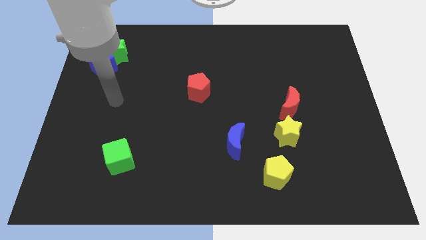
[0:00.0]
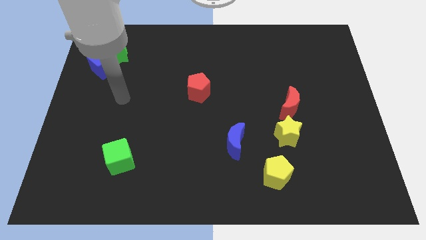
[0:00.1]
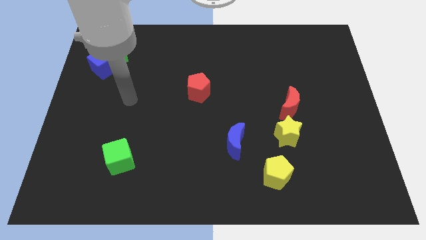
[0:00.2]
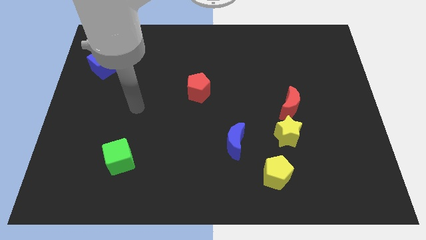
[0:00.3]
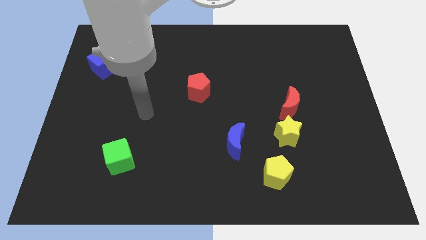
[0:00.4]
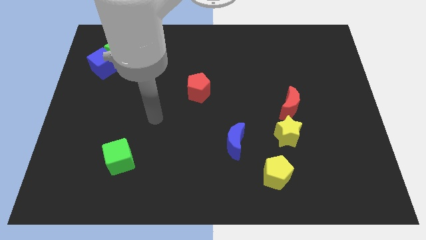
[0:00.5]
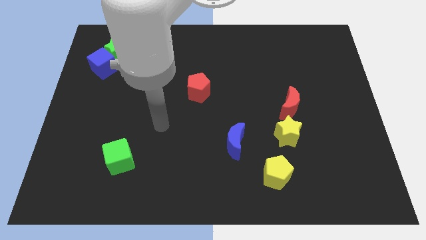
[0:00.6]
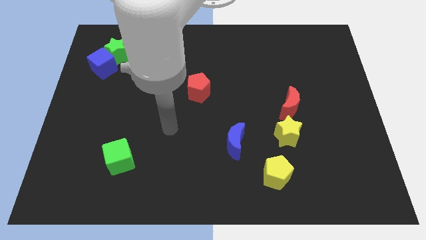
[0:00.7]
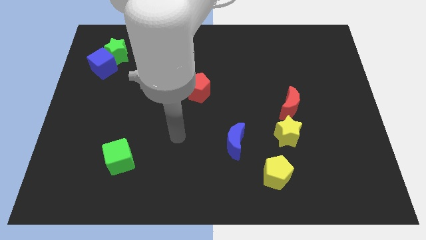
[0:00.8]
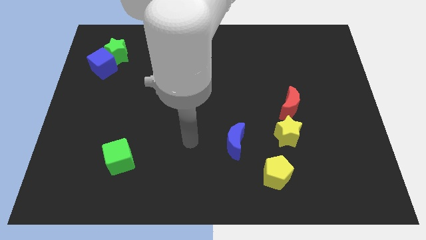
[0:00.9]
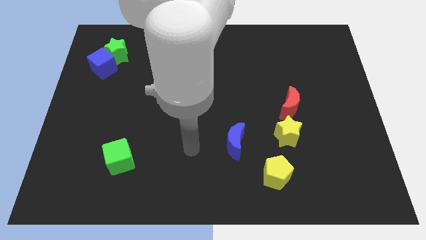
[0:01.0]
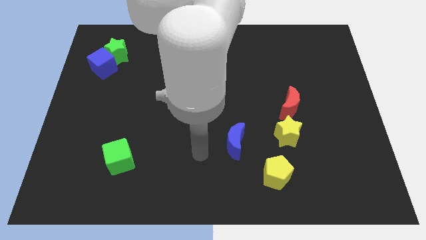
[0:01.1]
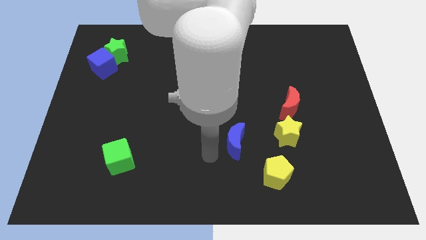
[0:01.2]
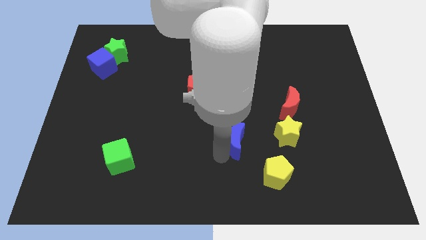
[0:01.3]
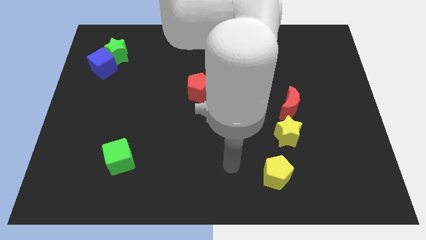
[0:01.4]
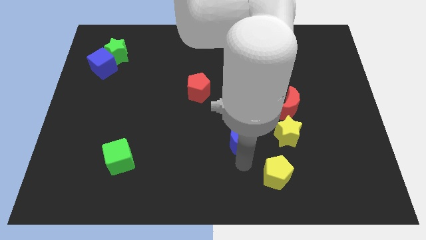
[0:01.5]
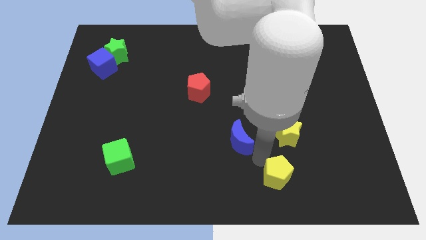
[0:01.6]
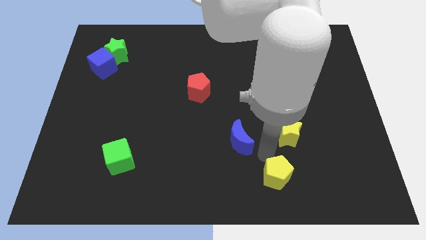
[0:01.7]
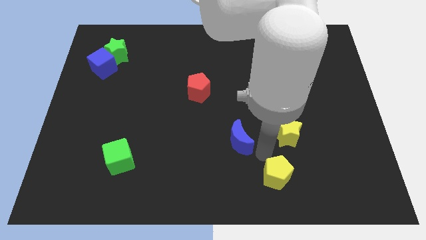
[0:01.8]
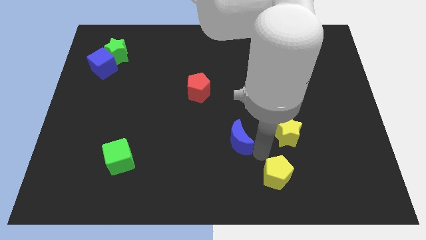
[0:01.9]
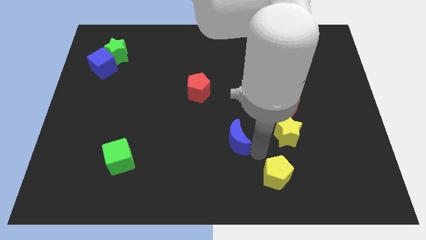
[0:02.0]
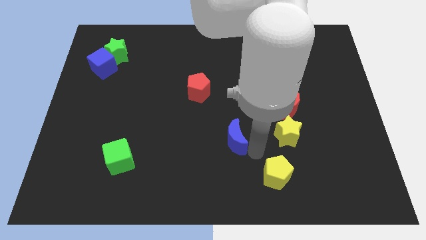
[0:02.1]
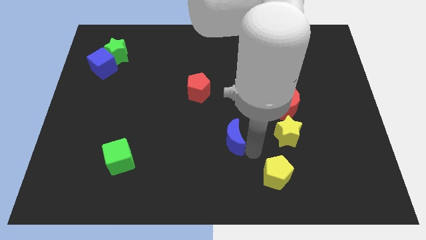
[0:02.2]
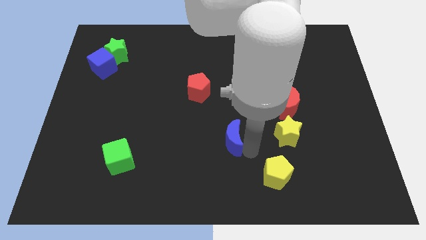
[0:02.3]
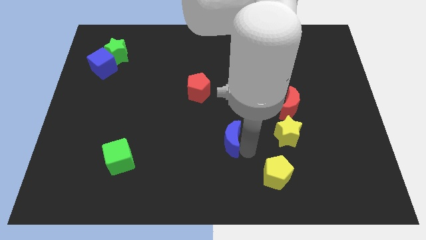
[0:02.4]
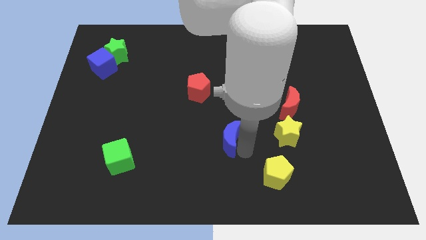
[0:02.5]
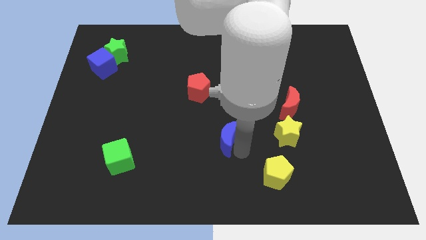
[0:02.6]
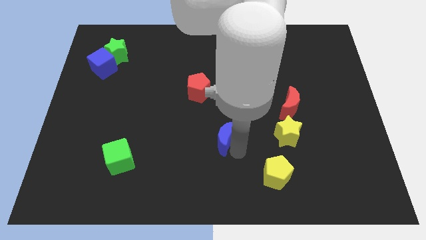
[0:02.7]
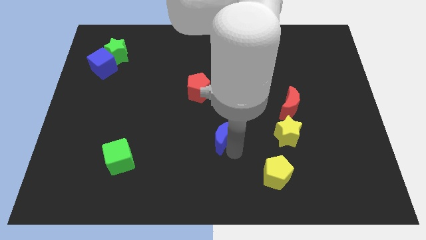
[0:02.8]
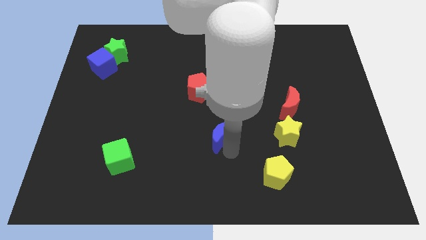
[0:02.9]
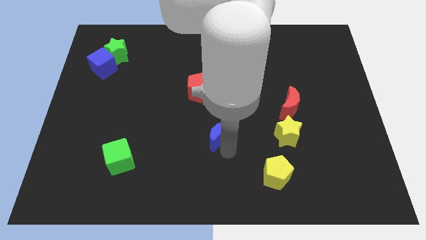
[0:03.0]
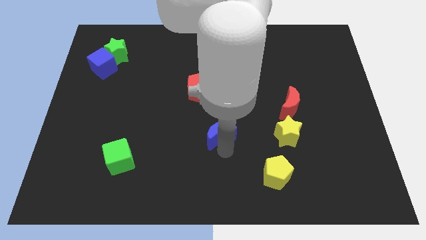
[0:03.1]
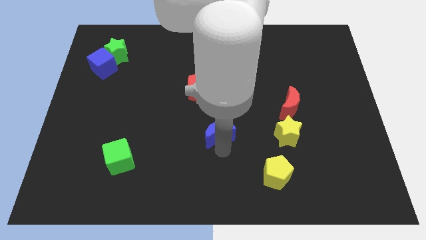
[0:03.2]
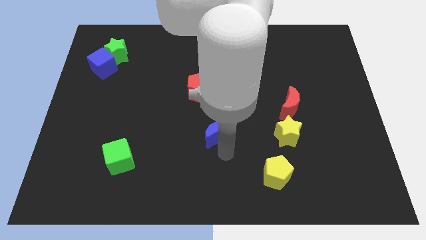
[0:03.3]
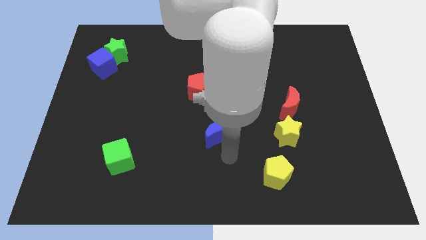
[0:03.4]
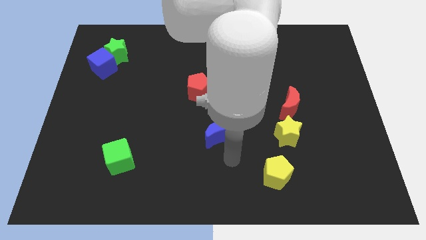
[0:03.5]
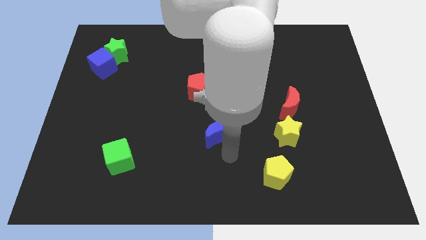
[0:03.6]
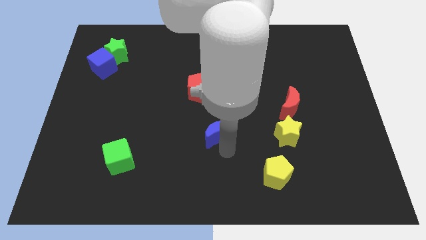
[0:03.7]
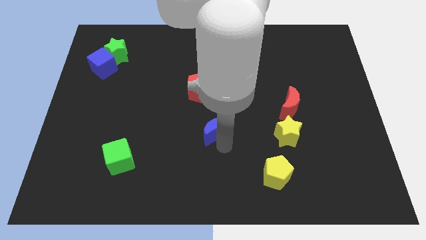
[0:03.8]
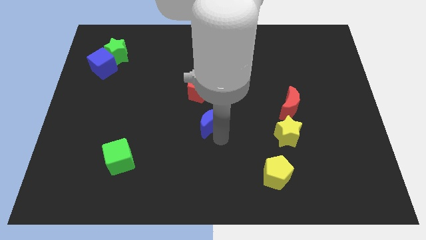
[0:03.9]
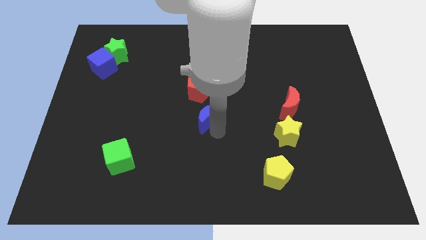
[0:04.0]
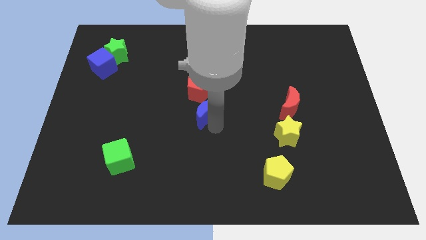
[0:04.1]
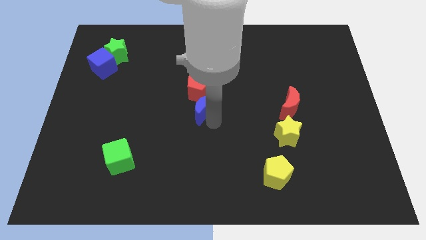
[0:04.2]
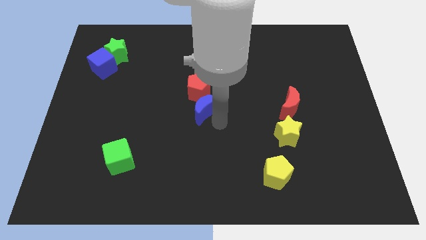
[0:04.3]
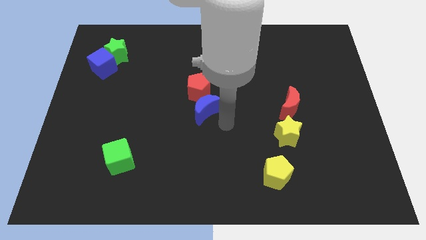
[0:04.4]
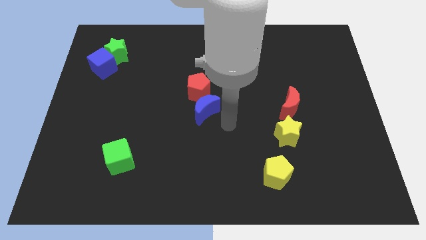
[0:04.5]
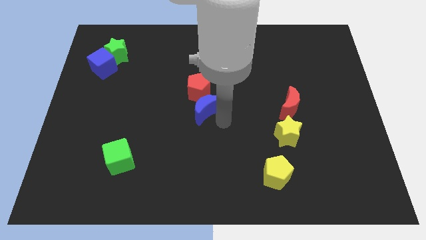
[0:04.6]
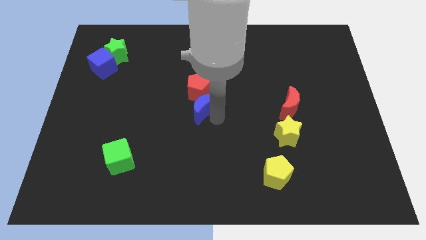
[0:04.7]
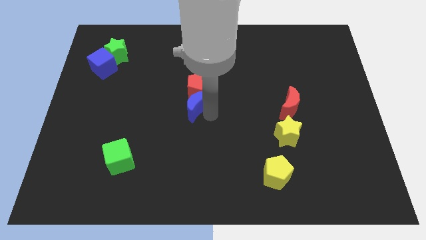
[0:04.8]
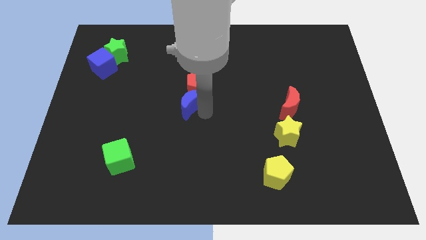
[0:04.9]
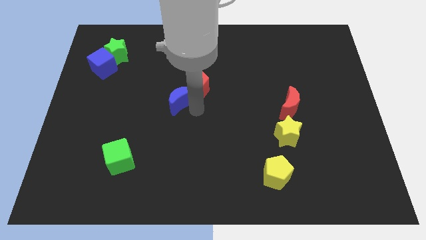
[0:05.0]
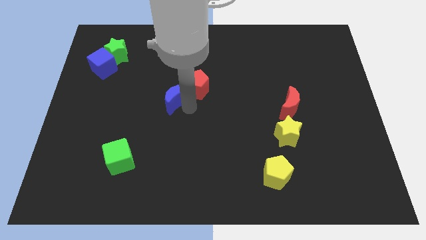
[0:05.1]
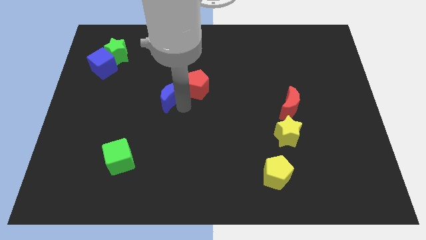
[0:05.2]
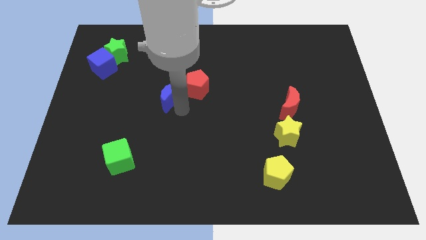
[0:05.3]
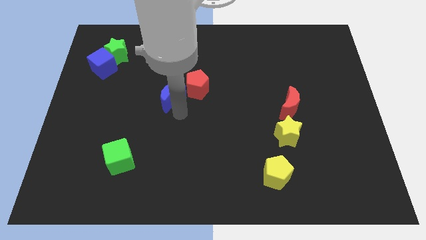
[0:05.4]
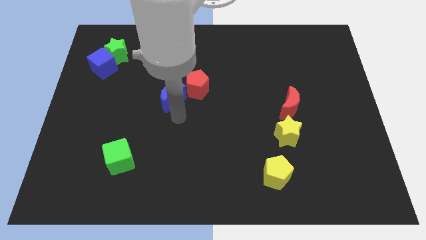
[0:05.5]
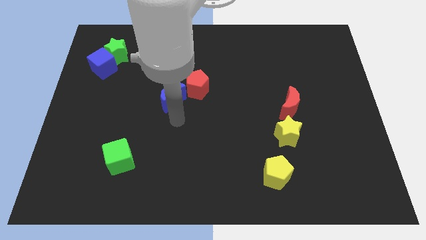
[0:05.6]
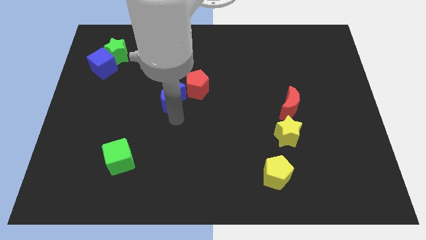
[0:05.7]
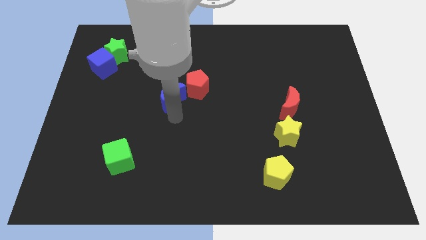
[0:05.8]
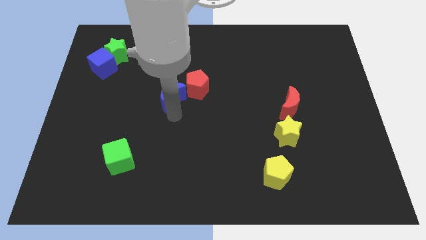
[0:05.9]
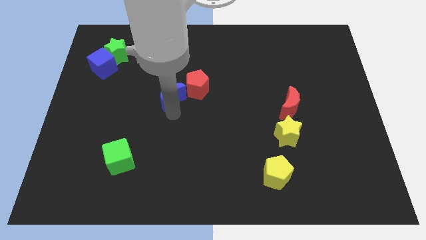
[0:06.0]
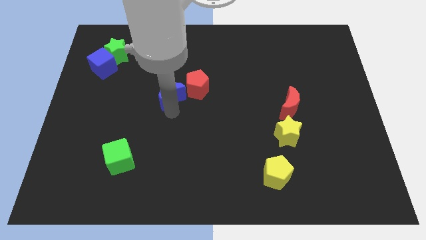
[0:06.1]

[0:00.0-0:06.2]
push the blue moon diagonally up and to the left

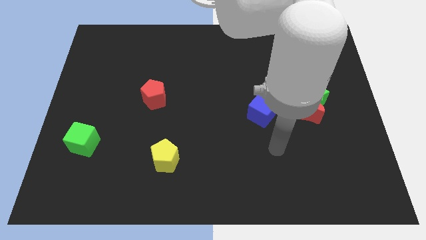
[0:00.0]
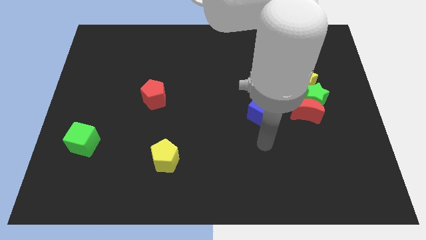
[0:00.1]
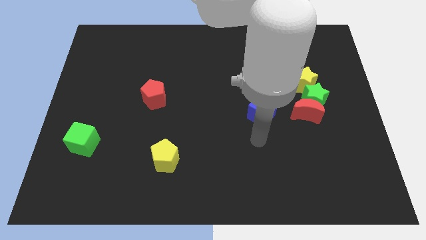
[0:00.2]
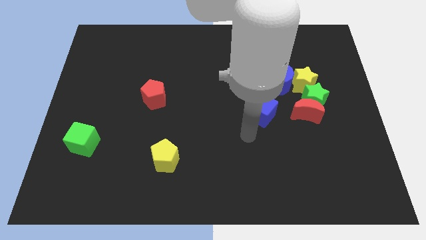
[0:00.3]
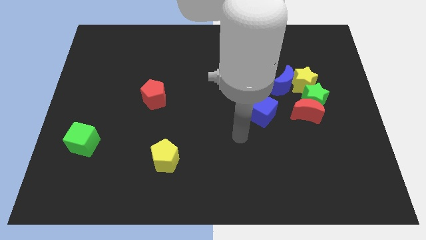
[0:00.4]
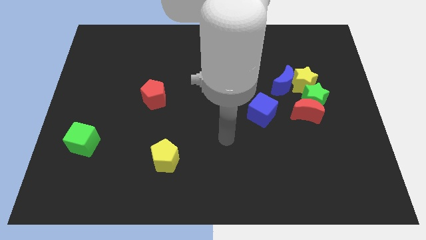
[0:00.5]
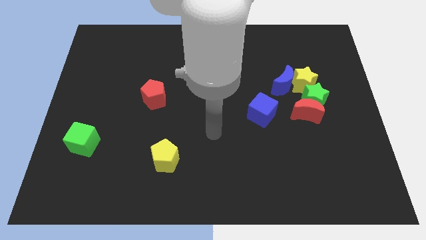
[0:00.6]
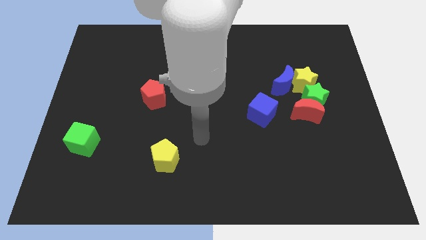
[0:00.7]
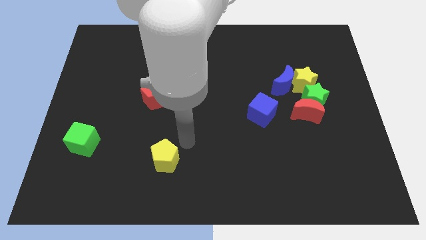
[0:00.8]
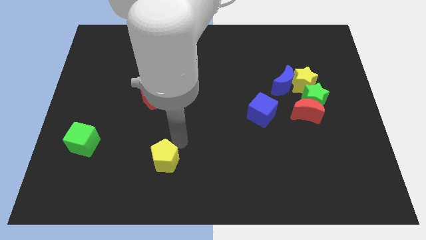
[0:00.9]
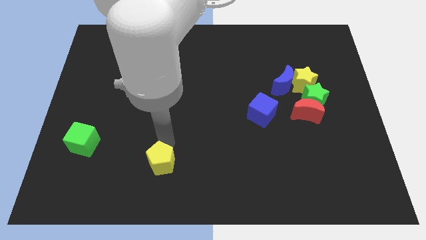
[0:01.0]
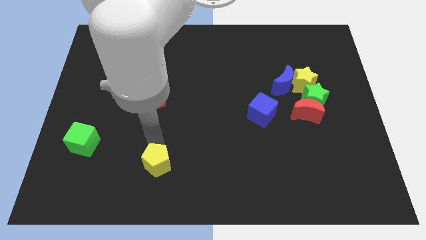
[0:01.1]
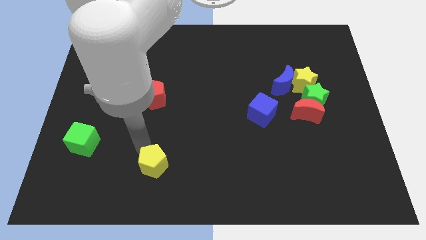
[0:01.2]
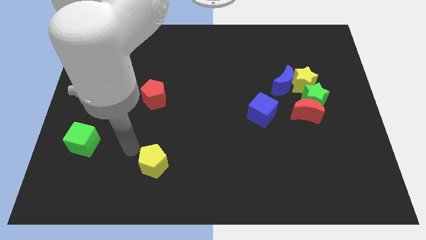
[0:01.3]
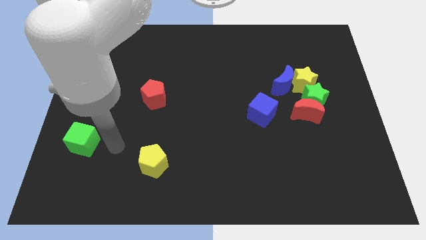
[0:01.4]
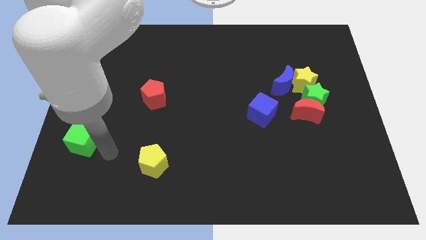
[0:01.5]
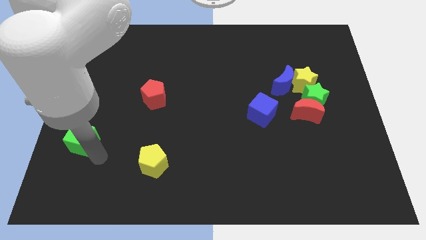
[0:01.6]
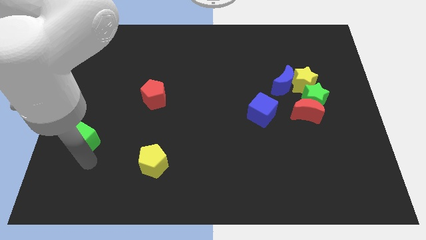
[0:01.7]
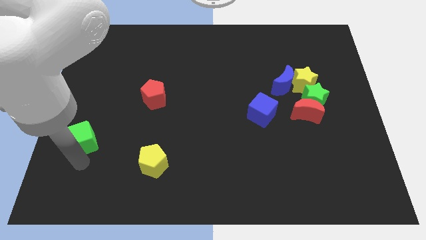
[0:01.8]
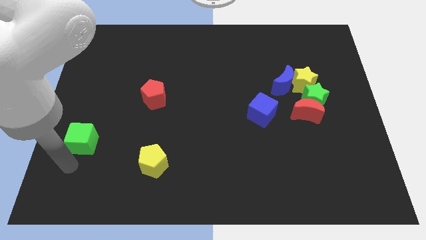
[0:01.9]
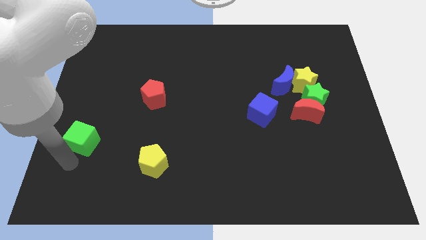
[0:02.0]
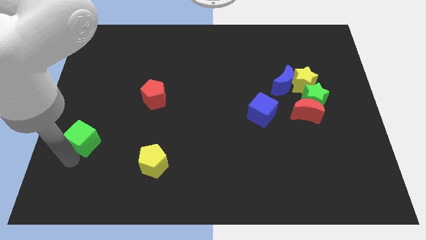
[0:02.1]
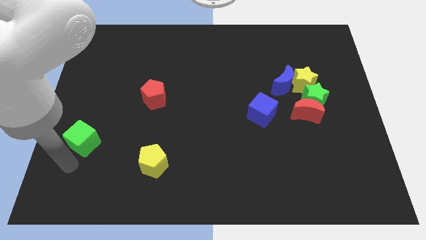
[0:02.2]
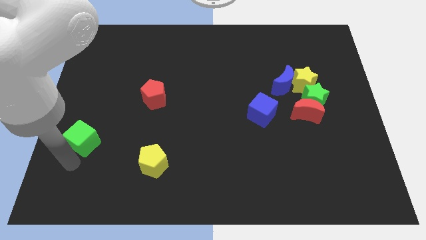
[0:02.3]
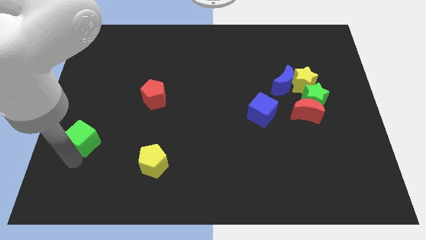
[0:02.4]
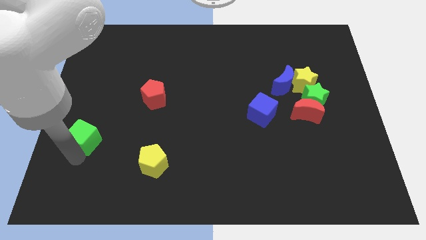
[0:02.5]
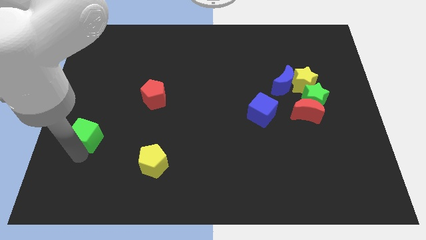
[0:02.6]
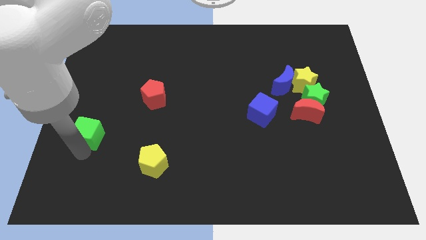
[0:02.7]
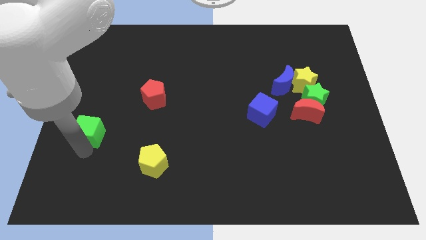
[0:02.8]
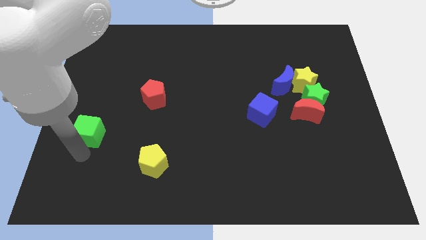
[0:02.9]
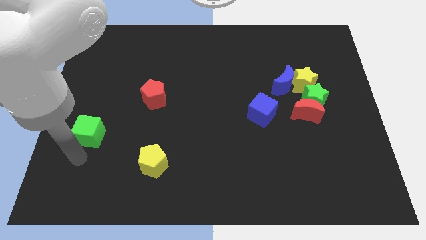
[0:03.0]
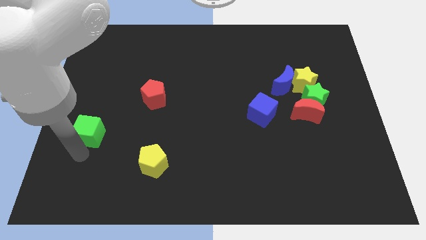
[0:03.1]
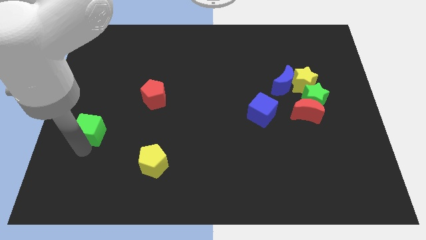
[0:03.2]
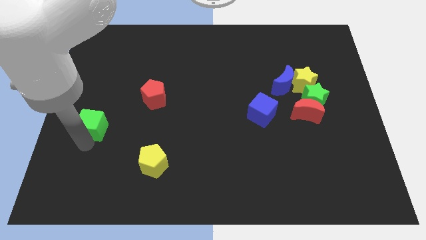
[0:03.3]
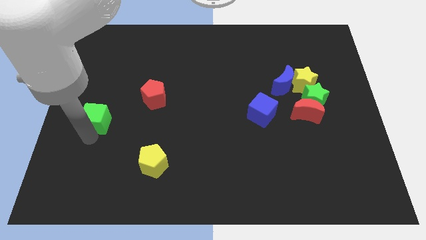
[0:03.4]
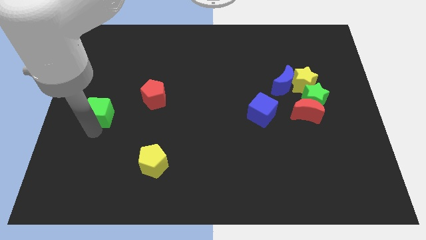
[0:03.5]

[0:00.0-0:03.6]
move the green cube a little bit upwards
